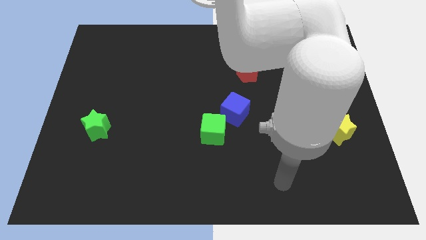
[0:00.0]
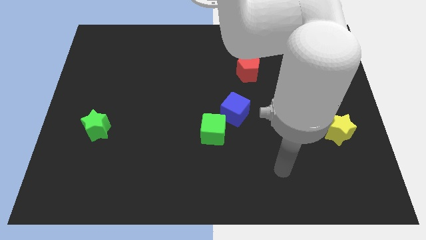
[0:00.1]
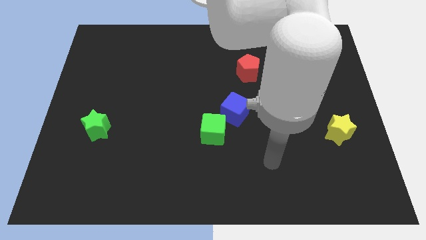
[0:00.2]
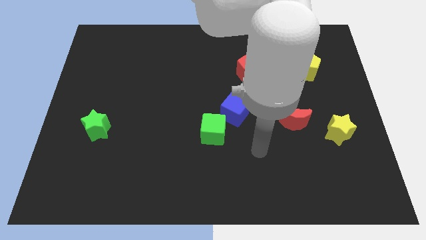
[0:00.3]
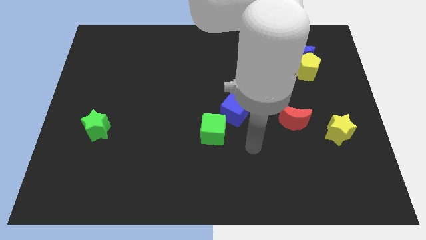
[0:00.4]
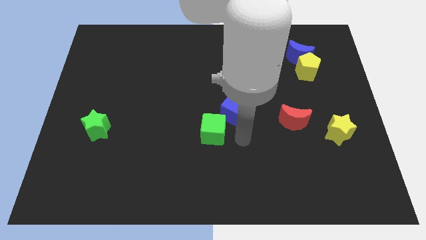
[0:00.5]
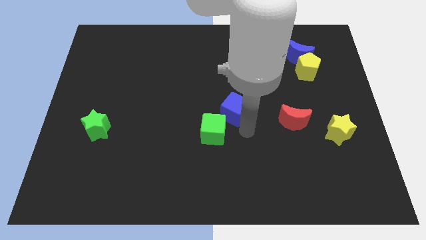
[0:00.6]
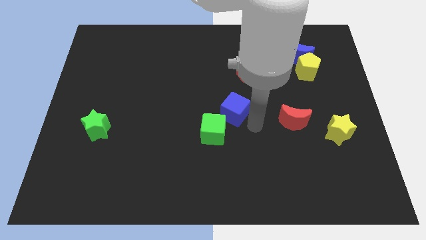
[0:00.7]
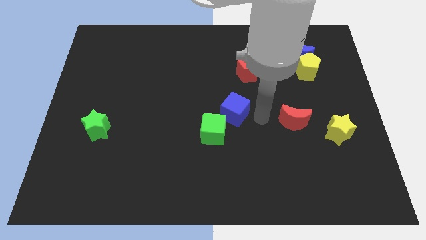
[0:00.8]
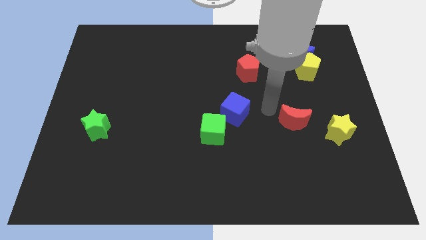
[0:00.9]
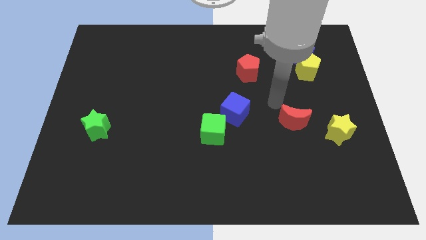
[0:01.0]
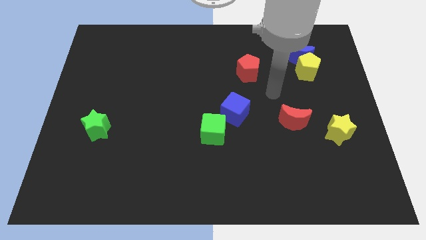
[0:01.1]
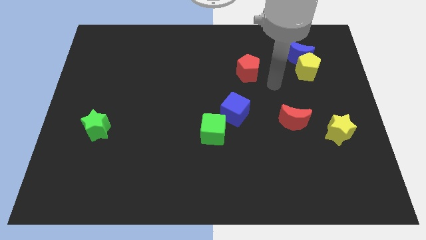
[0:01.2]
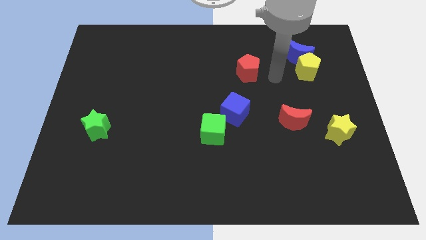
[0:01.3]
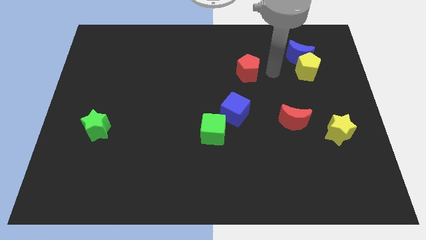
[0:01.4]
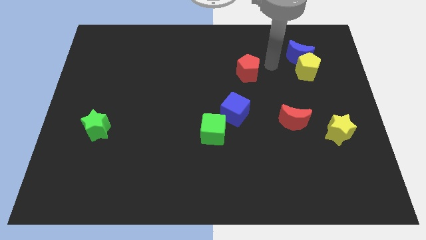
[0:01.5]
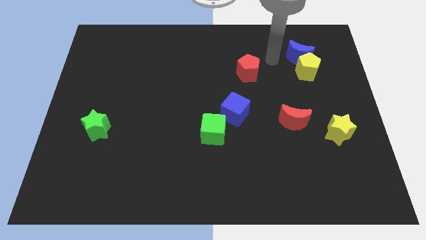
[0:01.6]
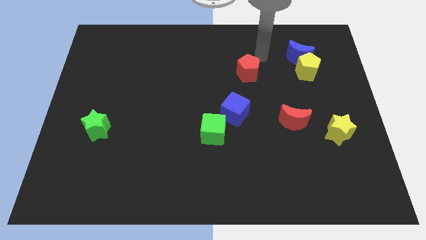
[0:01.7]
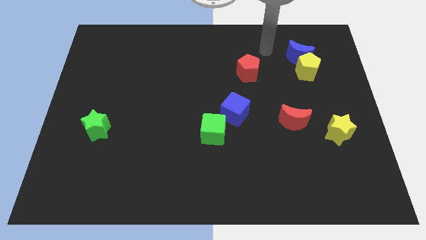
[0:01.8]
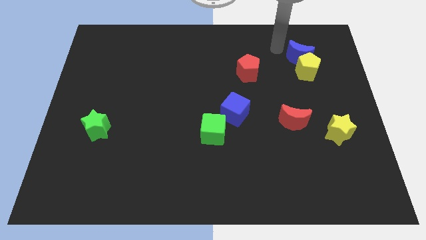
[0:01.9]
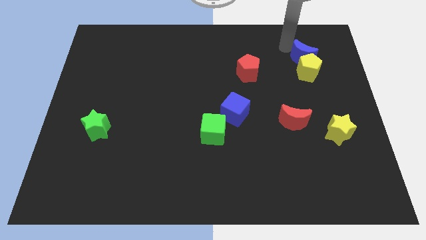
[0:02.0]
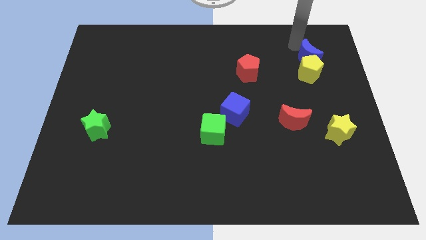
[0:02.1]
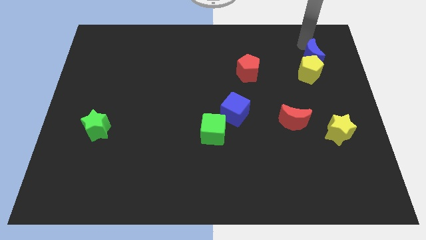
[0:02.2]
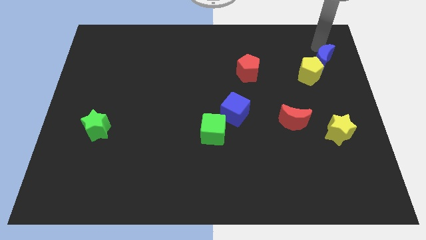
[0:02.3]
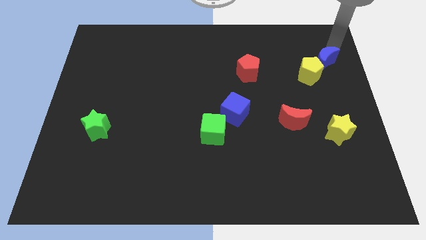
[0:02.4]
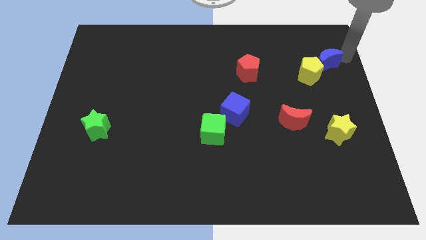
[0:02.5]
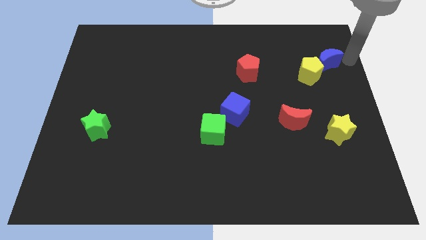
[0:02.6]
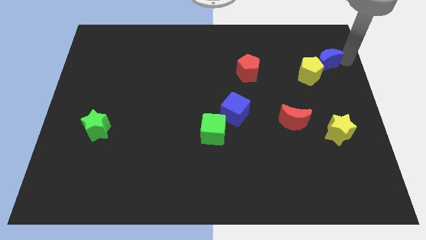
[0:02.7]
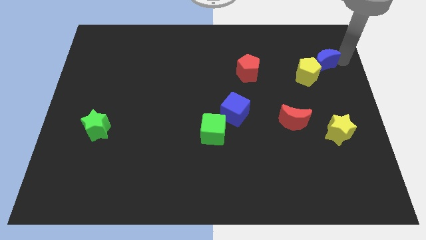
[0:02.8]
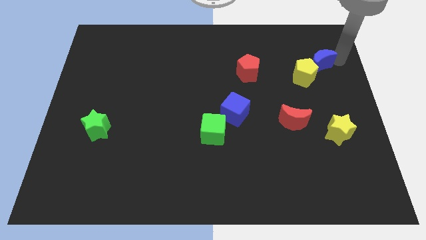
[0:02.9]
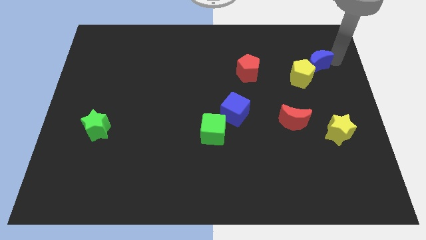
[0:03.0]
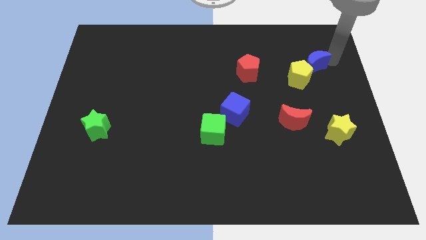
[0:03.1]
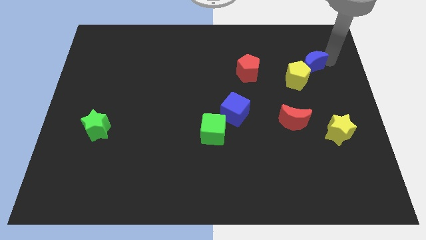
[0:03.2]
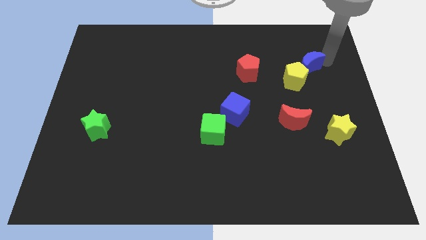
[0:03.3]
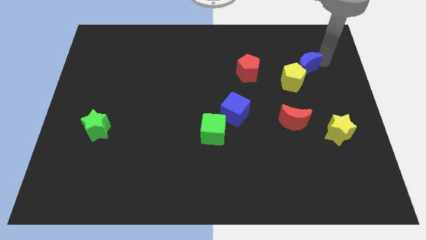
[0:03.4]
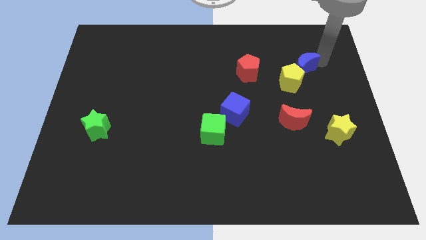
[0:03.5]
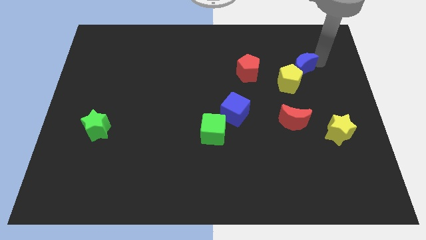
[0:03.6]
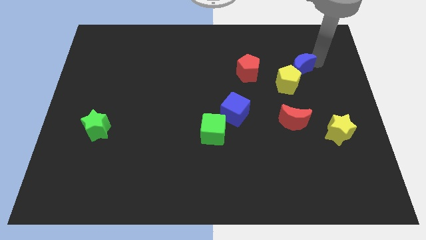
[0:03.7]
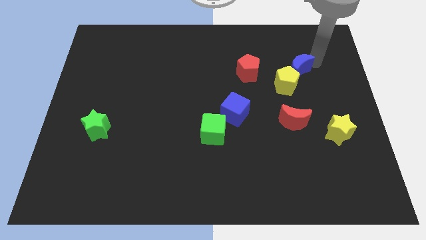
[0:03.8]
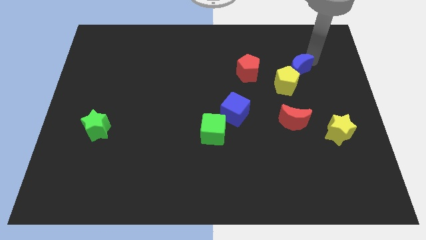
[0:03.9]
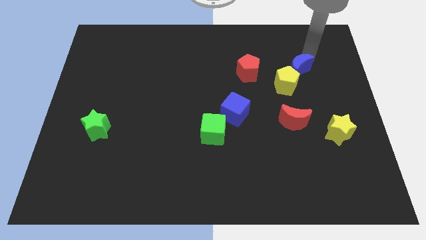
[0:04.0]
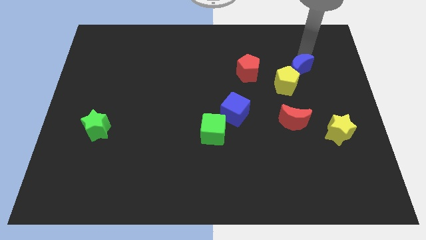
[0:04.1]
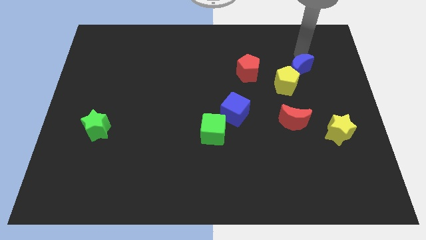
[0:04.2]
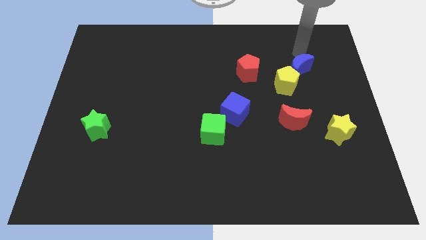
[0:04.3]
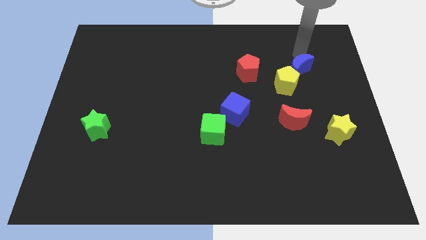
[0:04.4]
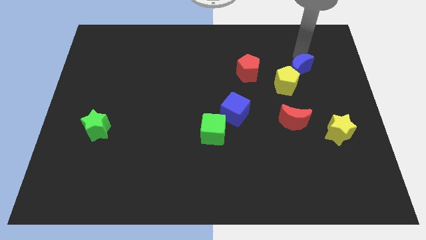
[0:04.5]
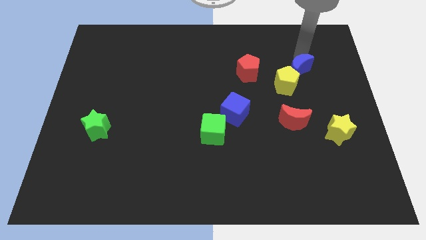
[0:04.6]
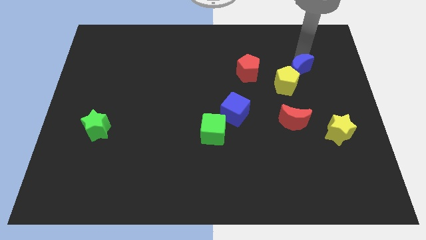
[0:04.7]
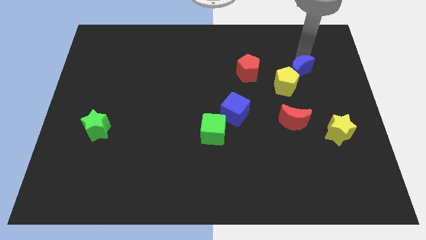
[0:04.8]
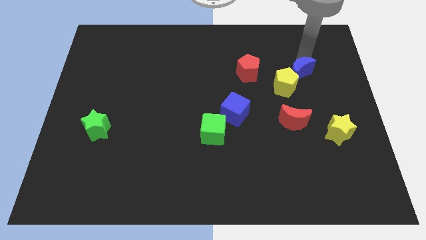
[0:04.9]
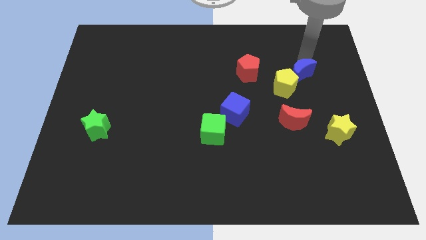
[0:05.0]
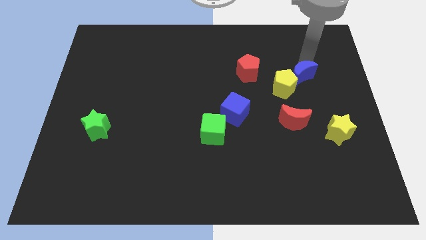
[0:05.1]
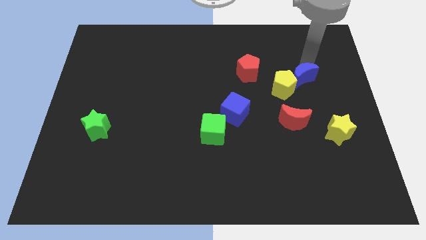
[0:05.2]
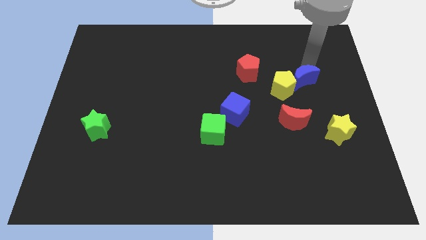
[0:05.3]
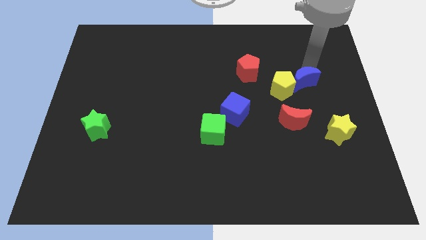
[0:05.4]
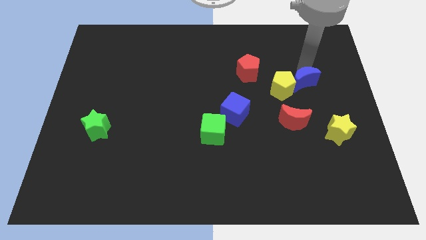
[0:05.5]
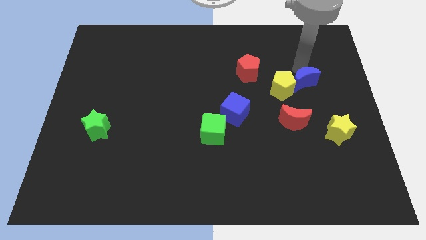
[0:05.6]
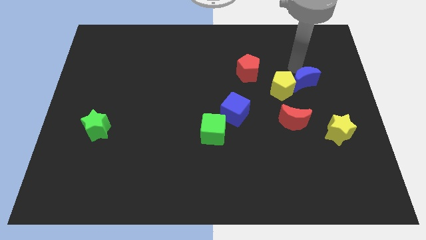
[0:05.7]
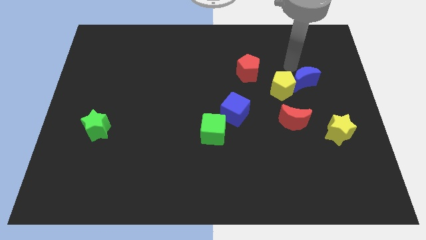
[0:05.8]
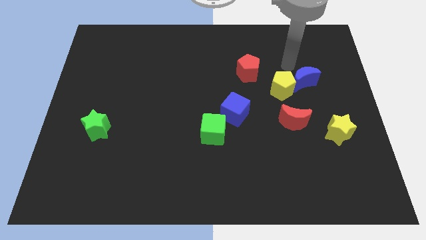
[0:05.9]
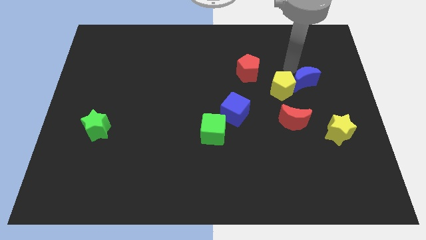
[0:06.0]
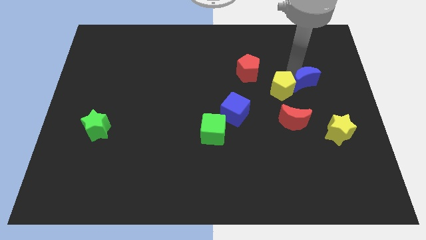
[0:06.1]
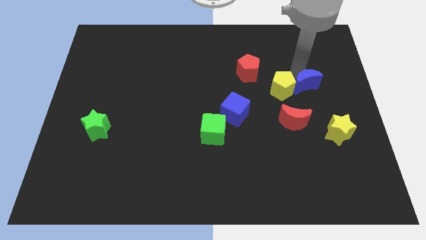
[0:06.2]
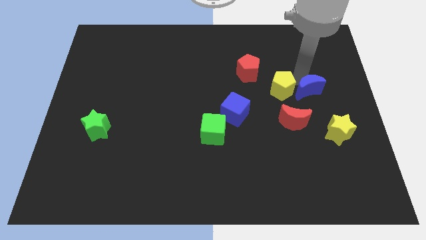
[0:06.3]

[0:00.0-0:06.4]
move the blue moon above the yellow star
